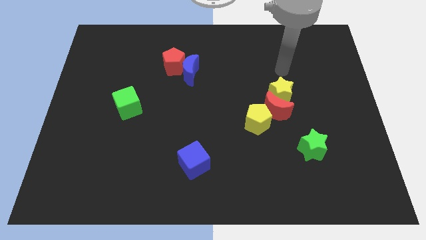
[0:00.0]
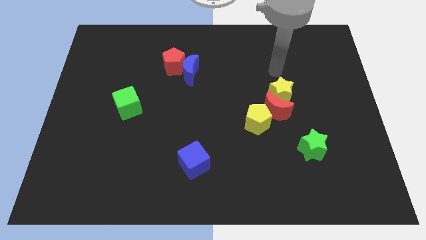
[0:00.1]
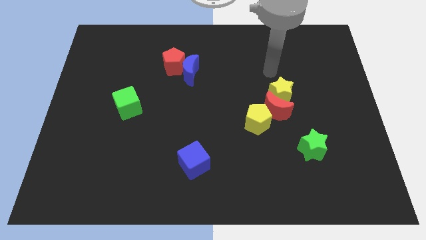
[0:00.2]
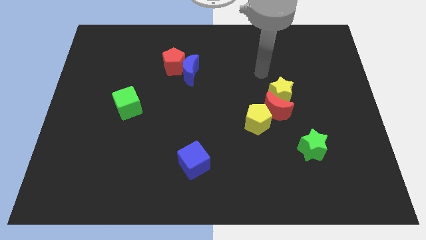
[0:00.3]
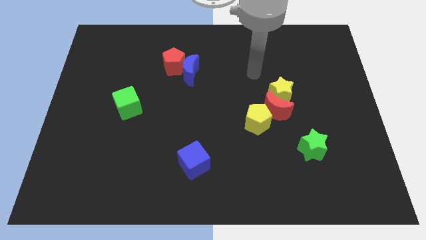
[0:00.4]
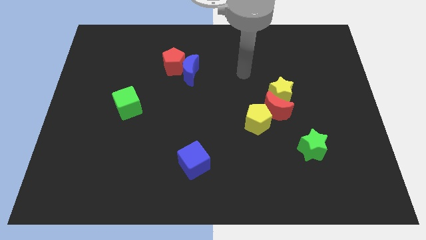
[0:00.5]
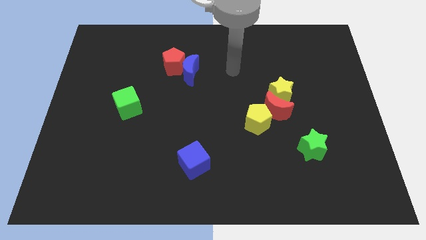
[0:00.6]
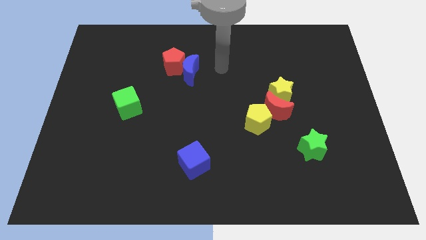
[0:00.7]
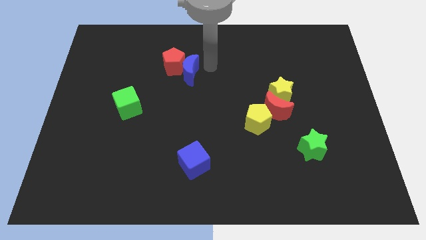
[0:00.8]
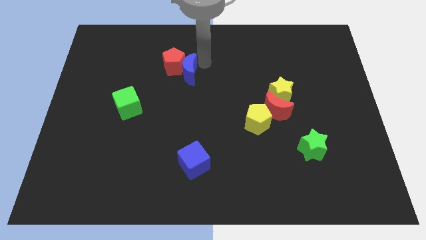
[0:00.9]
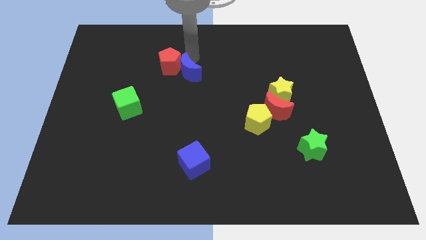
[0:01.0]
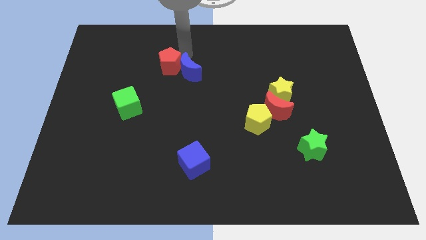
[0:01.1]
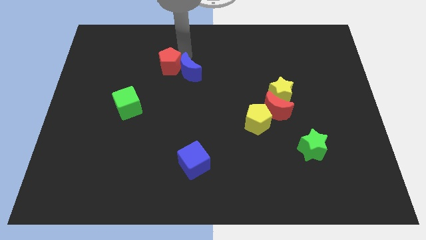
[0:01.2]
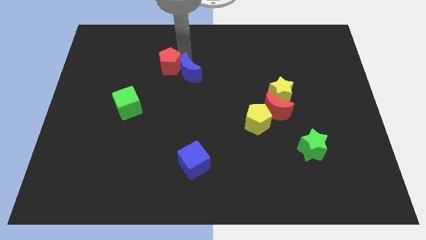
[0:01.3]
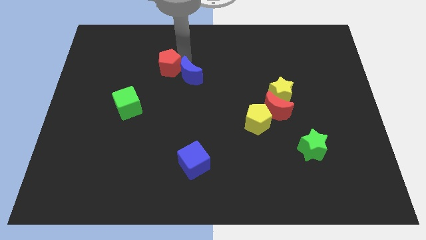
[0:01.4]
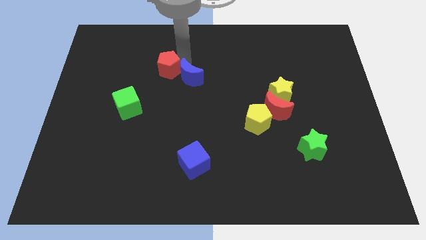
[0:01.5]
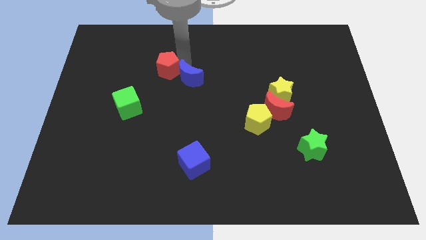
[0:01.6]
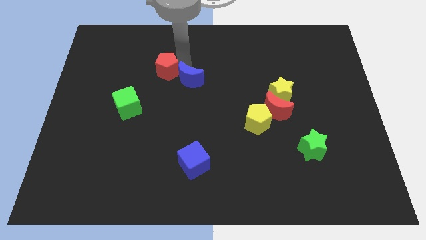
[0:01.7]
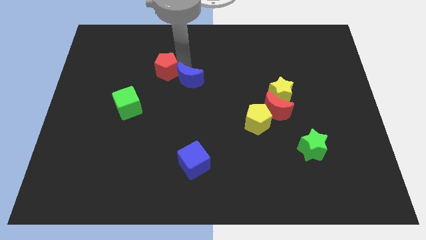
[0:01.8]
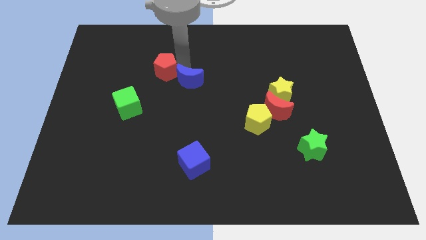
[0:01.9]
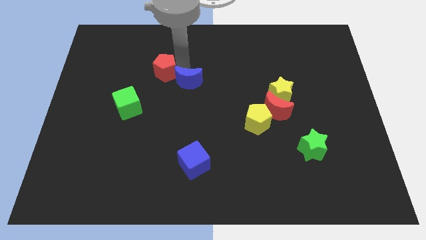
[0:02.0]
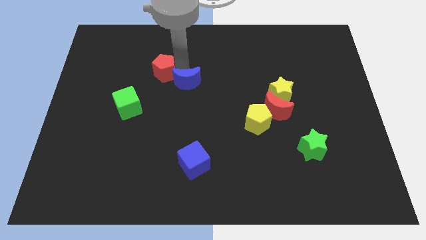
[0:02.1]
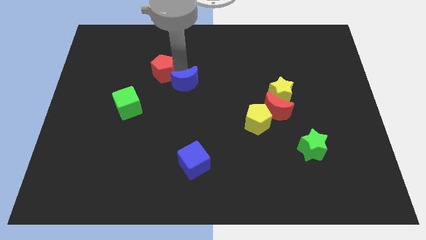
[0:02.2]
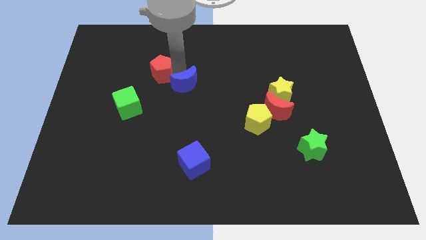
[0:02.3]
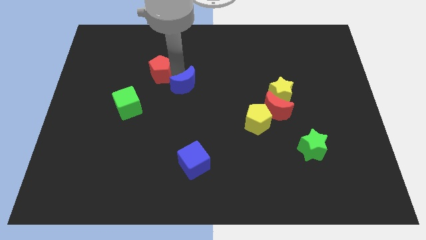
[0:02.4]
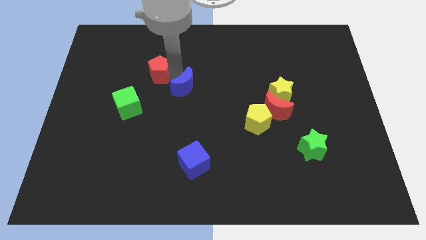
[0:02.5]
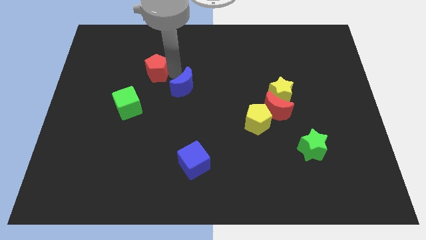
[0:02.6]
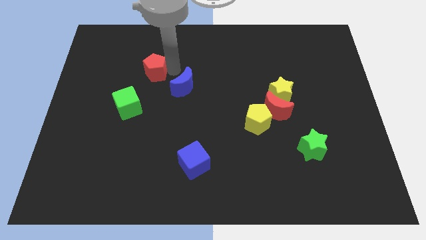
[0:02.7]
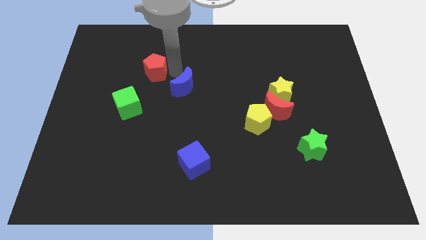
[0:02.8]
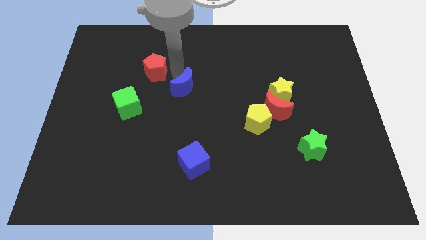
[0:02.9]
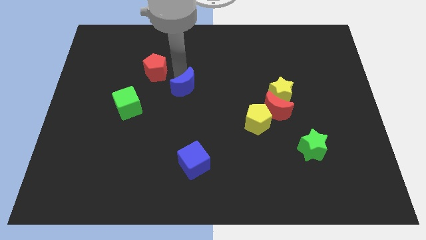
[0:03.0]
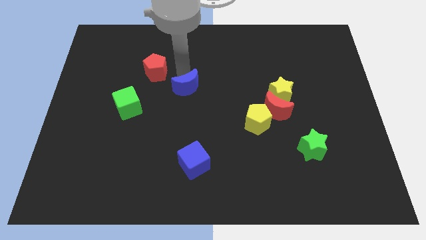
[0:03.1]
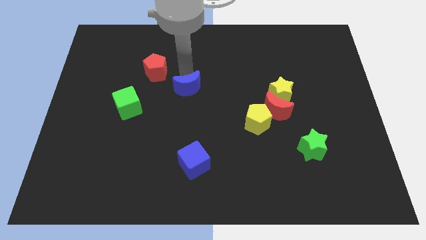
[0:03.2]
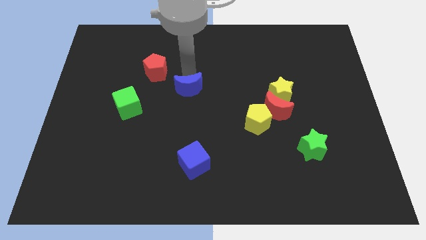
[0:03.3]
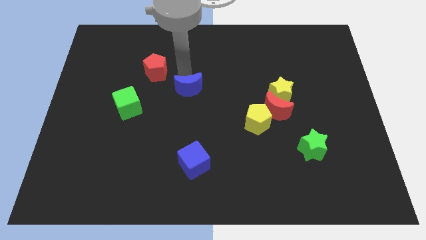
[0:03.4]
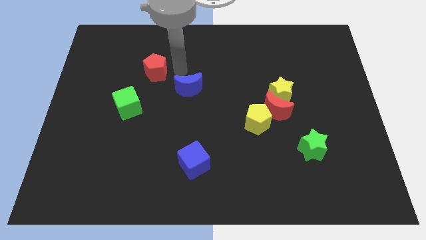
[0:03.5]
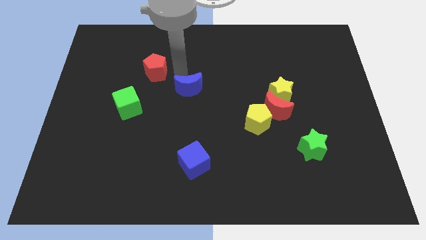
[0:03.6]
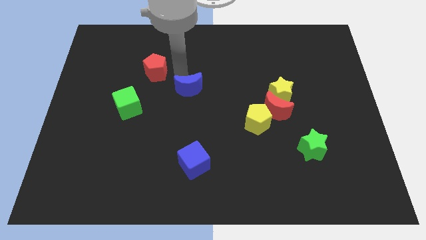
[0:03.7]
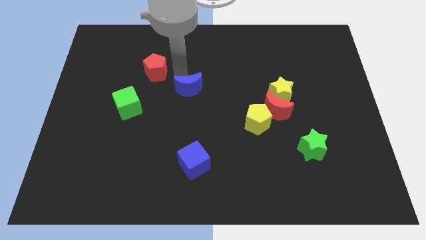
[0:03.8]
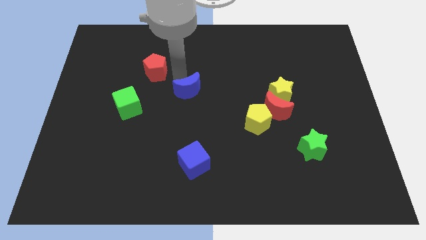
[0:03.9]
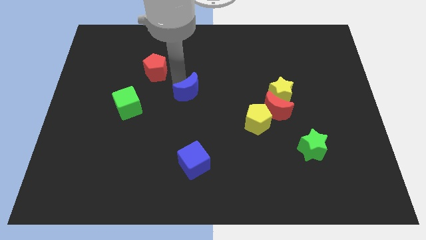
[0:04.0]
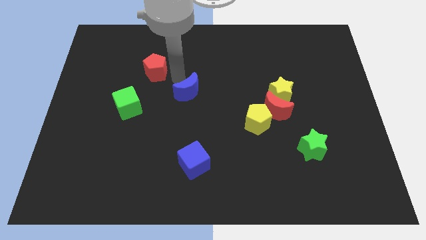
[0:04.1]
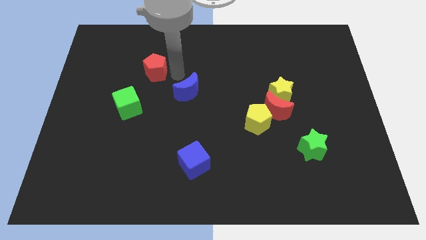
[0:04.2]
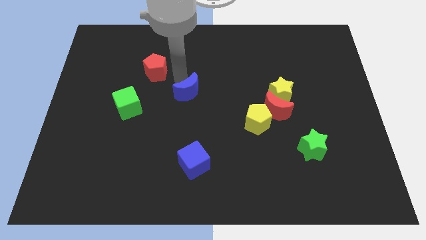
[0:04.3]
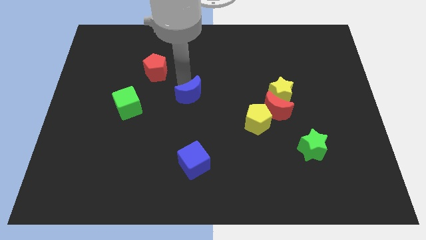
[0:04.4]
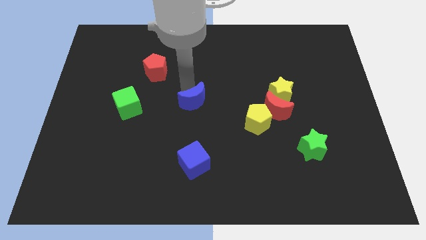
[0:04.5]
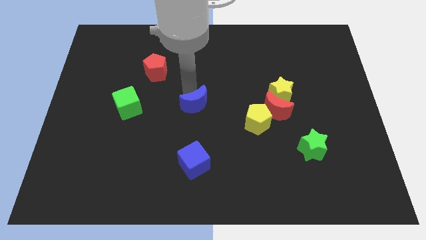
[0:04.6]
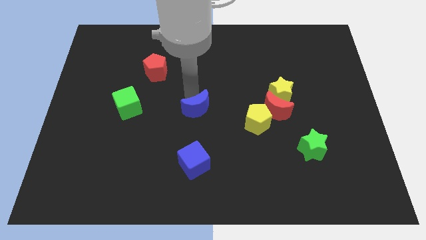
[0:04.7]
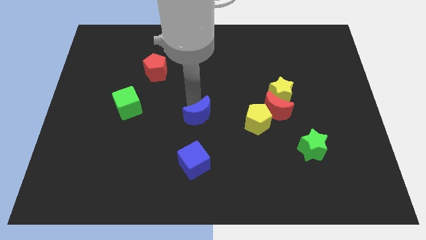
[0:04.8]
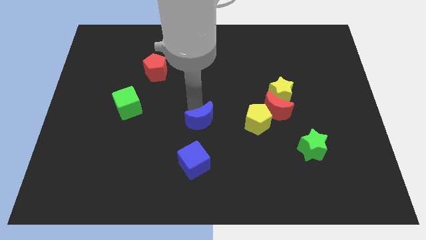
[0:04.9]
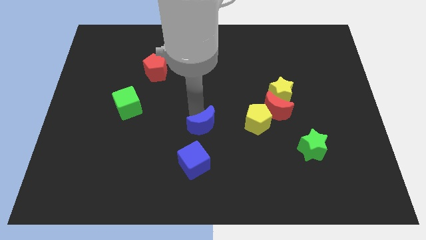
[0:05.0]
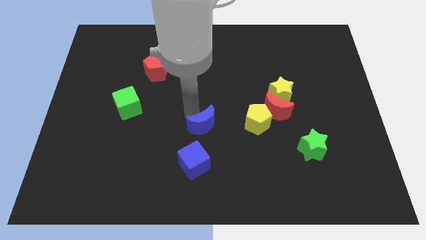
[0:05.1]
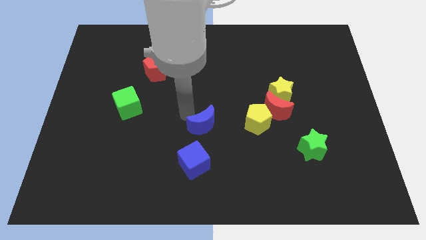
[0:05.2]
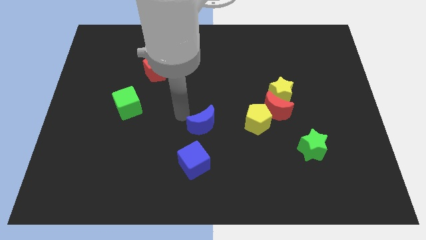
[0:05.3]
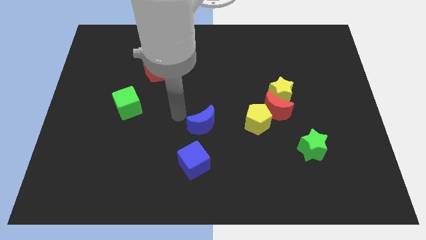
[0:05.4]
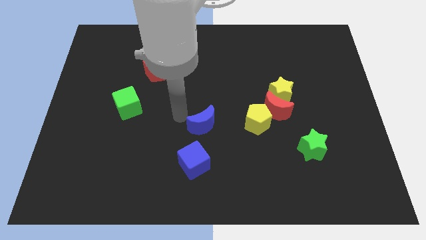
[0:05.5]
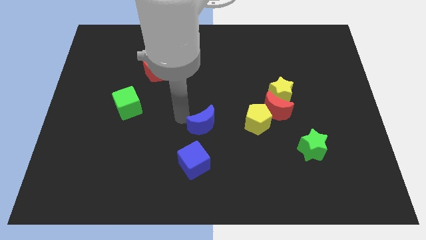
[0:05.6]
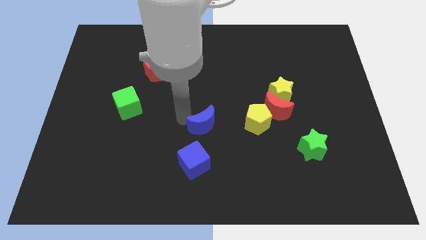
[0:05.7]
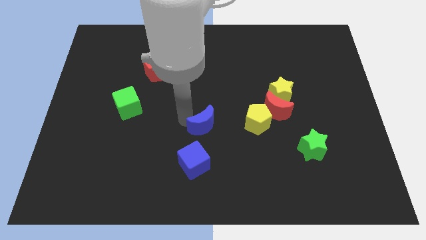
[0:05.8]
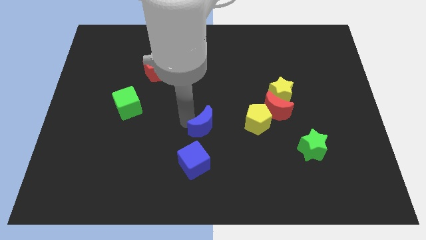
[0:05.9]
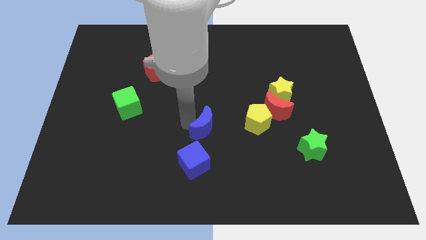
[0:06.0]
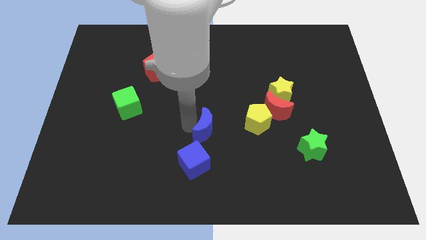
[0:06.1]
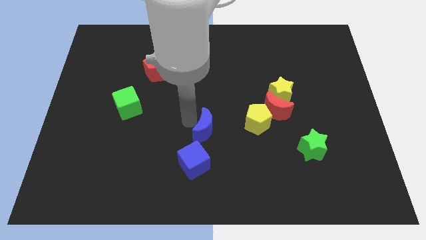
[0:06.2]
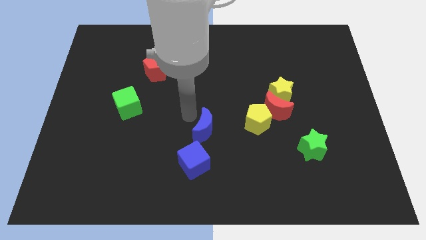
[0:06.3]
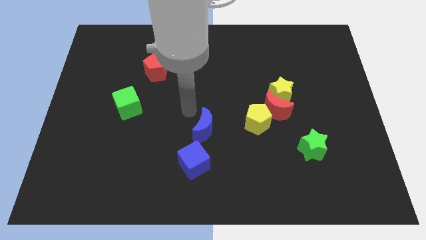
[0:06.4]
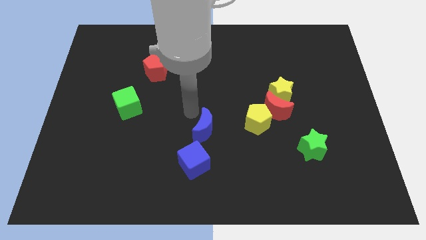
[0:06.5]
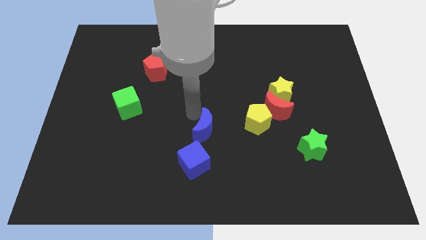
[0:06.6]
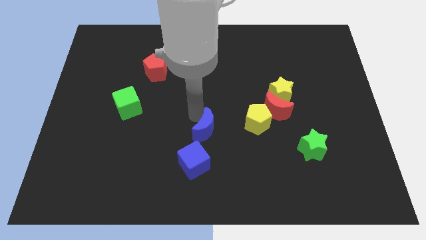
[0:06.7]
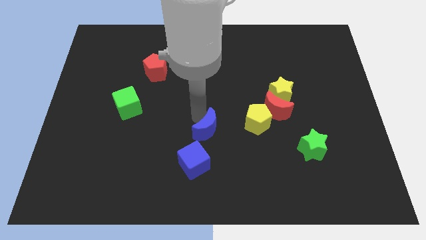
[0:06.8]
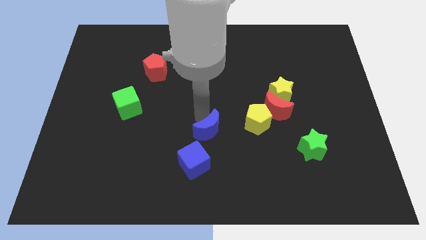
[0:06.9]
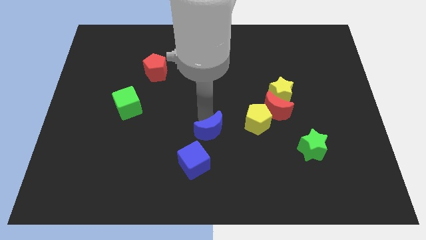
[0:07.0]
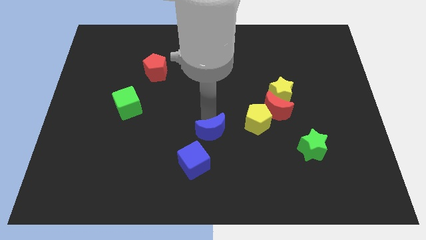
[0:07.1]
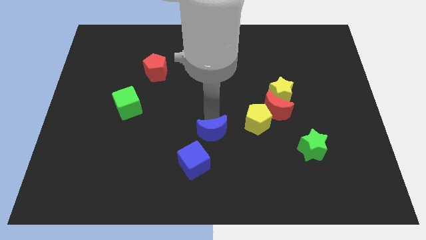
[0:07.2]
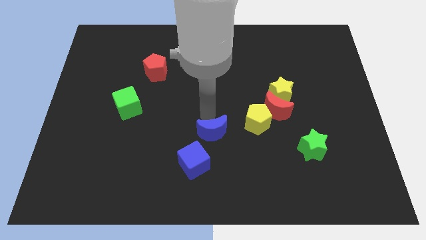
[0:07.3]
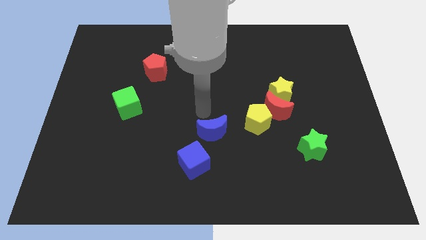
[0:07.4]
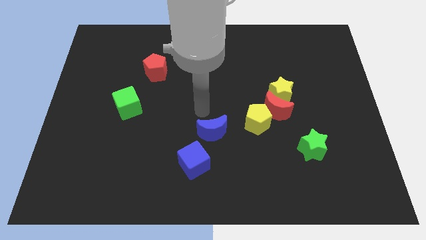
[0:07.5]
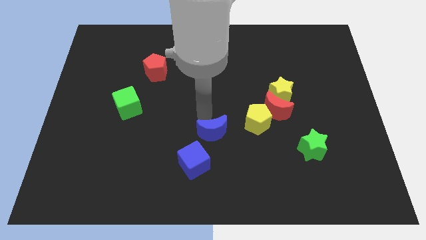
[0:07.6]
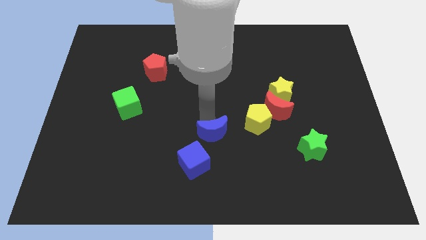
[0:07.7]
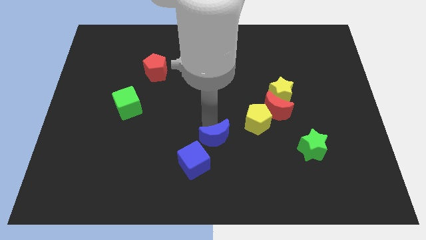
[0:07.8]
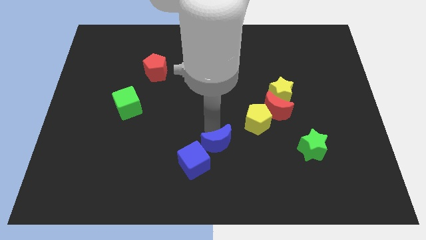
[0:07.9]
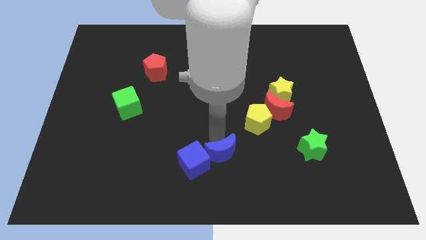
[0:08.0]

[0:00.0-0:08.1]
push the blue moon to the bottom
